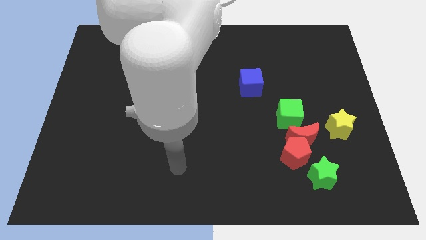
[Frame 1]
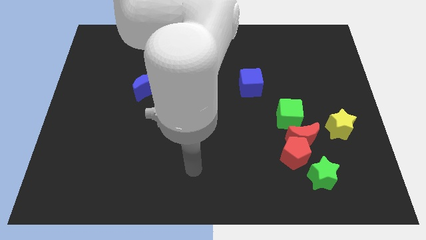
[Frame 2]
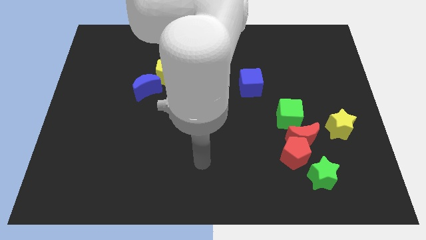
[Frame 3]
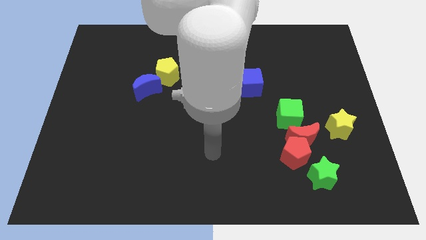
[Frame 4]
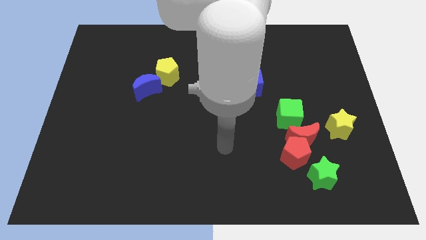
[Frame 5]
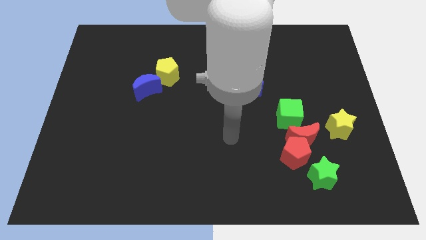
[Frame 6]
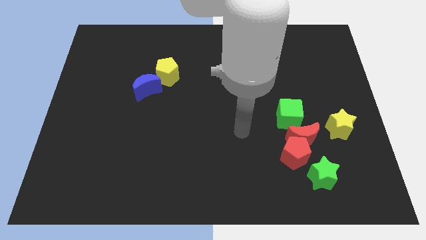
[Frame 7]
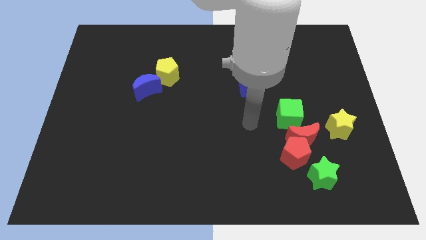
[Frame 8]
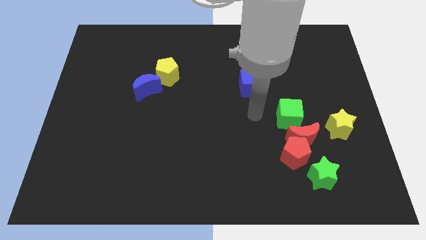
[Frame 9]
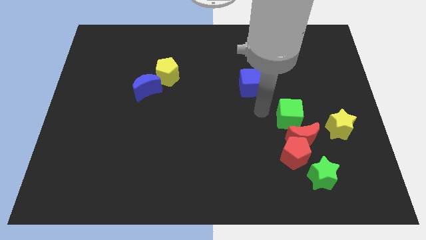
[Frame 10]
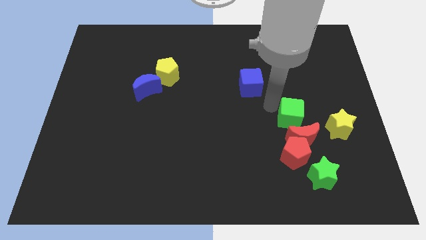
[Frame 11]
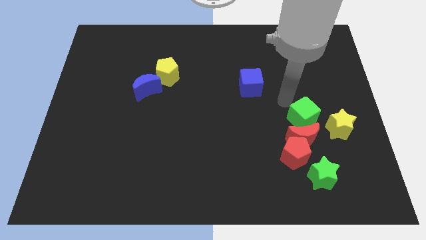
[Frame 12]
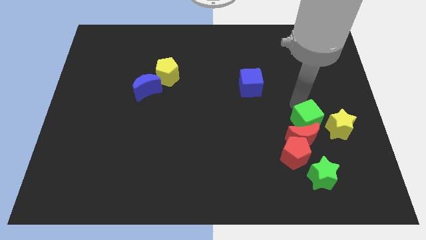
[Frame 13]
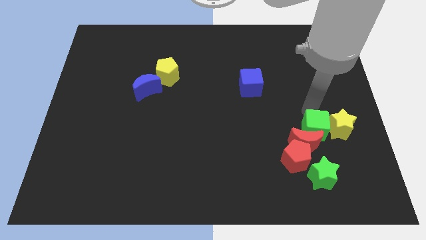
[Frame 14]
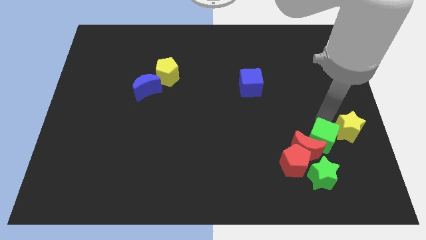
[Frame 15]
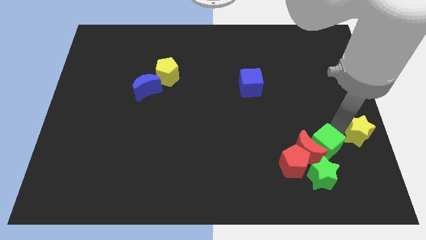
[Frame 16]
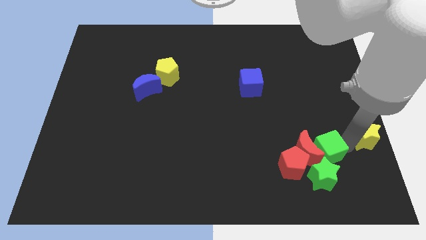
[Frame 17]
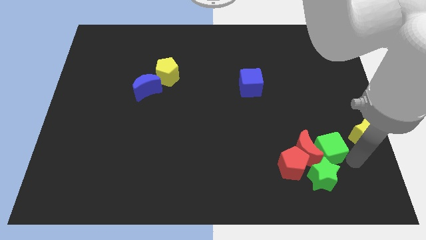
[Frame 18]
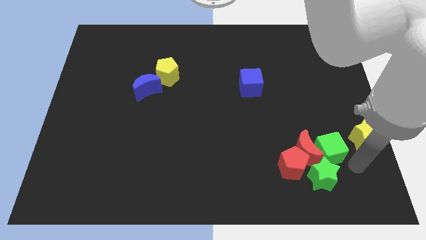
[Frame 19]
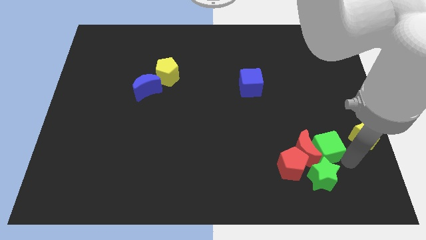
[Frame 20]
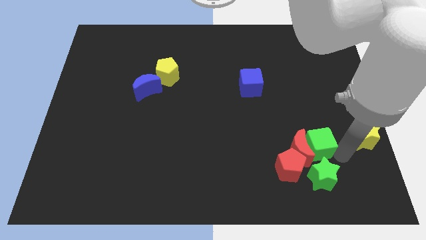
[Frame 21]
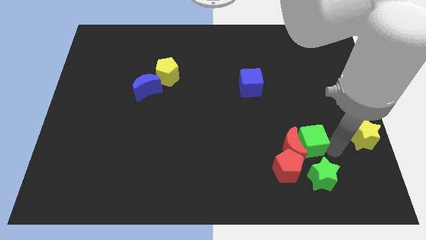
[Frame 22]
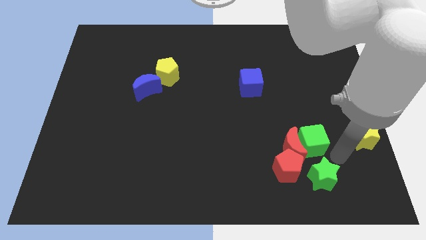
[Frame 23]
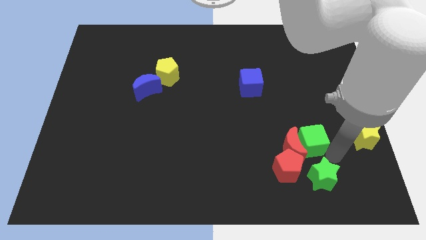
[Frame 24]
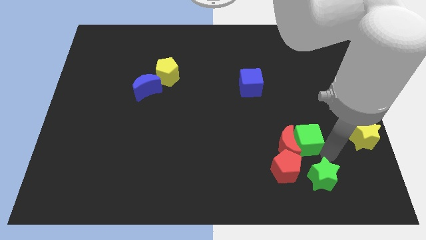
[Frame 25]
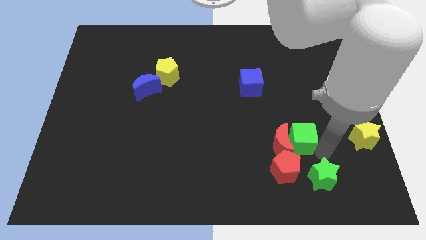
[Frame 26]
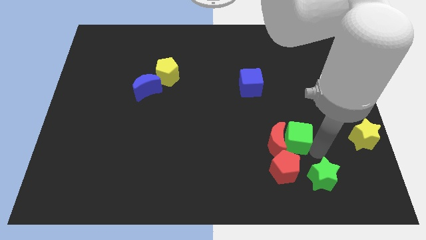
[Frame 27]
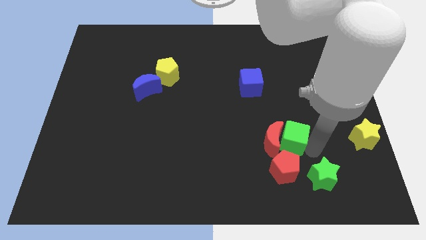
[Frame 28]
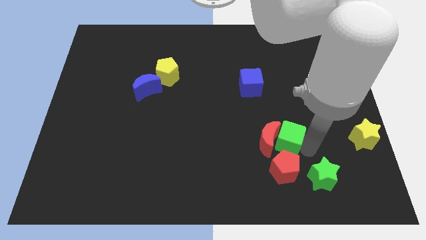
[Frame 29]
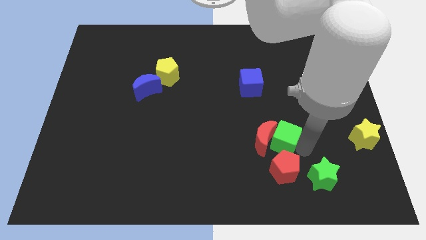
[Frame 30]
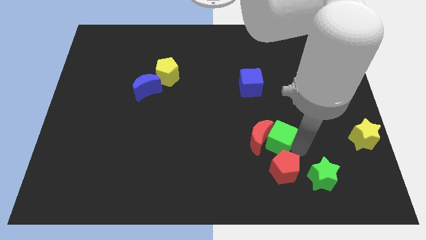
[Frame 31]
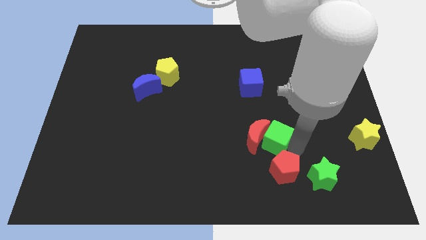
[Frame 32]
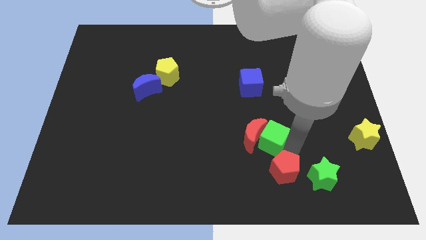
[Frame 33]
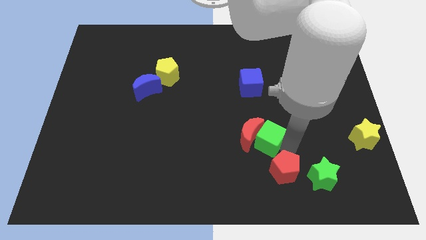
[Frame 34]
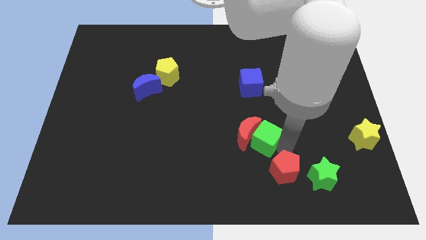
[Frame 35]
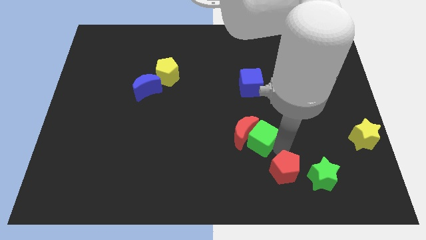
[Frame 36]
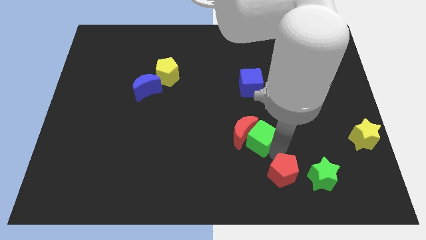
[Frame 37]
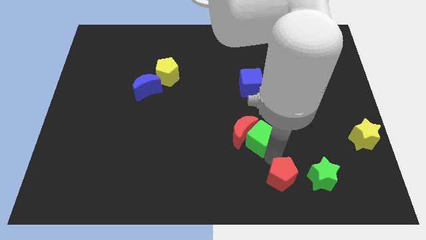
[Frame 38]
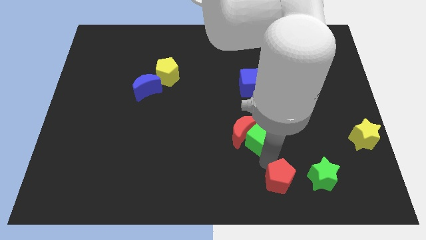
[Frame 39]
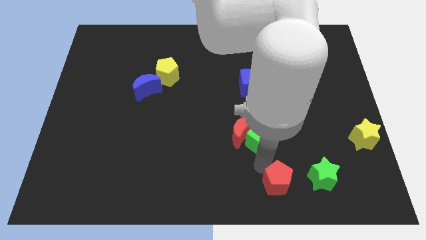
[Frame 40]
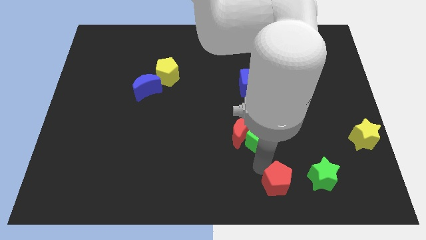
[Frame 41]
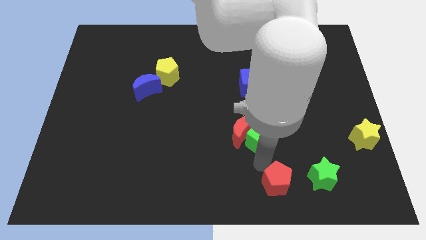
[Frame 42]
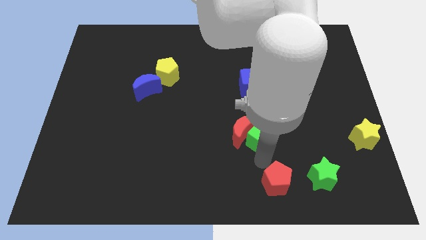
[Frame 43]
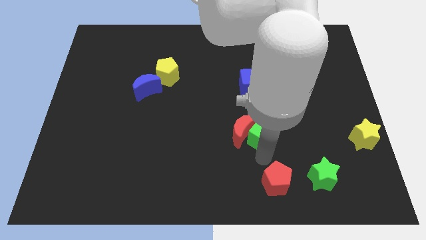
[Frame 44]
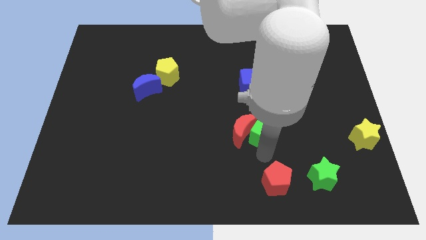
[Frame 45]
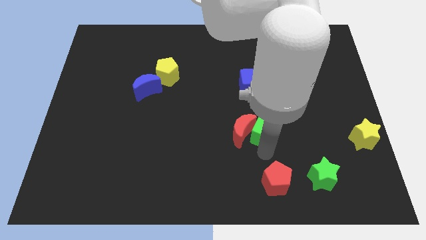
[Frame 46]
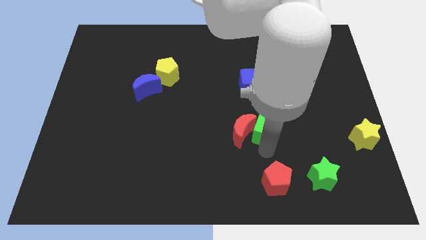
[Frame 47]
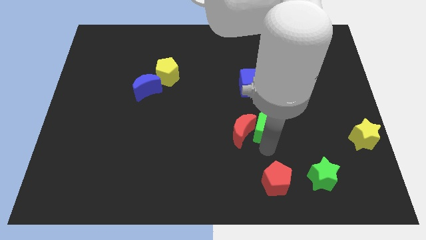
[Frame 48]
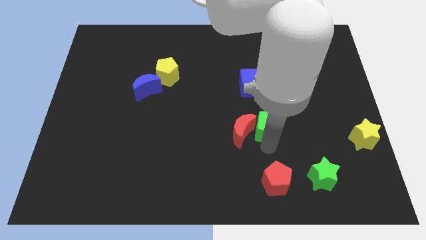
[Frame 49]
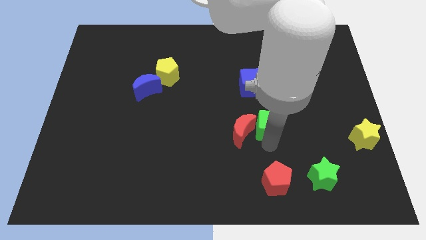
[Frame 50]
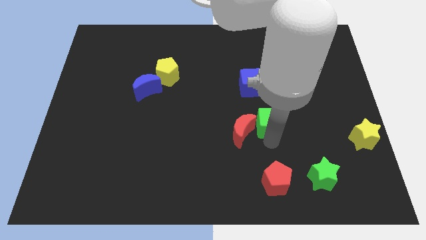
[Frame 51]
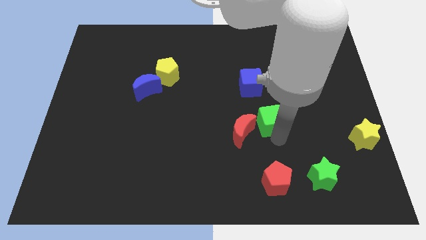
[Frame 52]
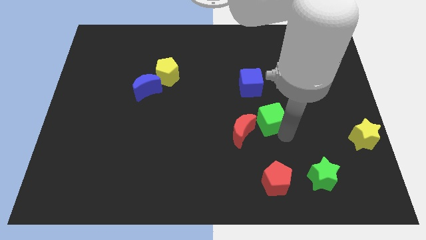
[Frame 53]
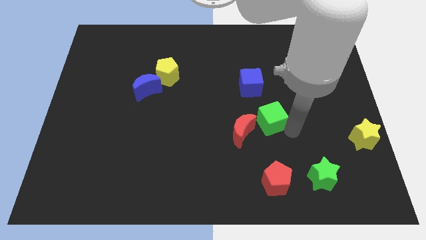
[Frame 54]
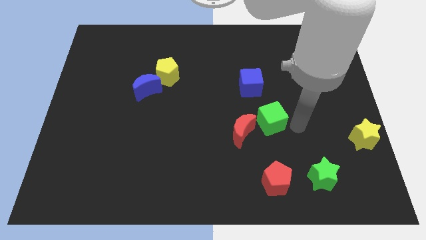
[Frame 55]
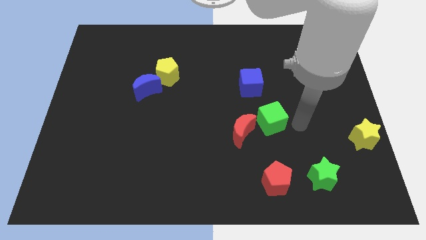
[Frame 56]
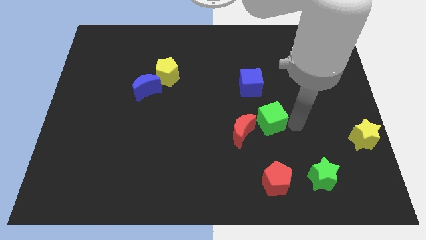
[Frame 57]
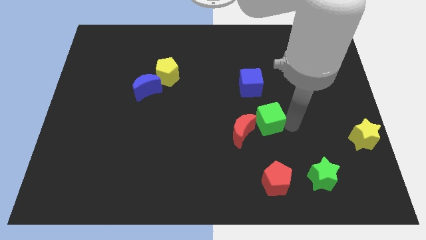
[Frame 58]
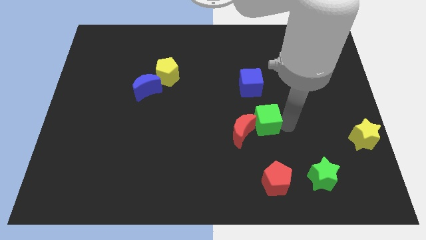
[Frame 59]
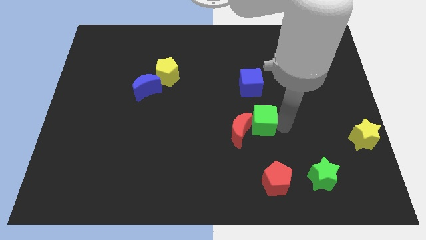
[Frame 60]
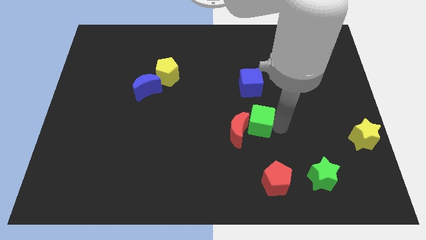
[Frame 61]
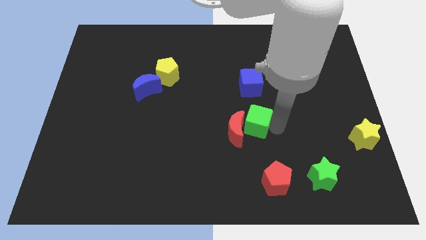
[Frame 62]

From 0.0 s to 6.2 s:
slightly move the green cube left

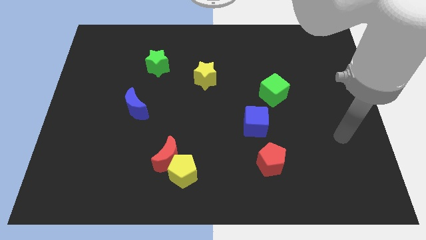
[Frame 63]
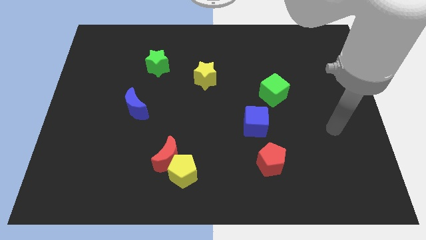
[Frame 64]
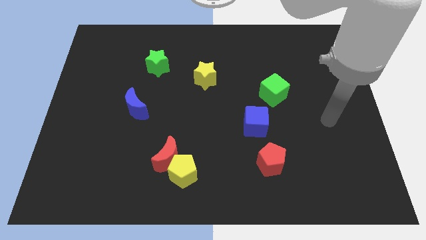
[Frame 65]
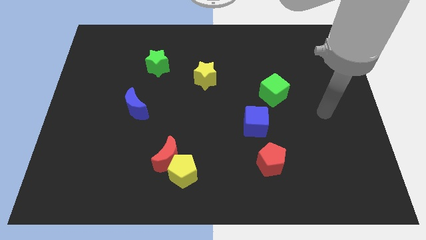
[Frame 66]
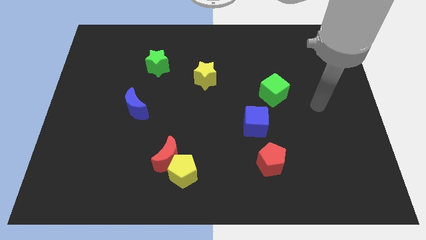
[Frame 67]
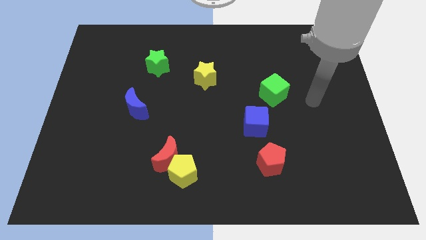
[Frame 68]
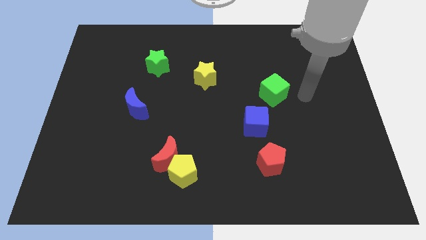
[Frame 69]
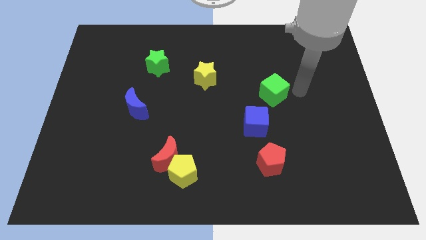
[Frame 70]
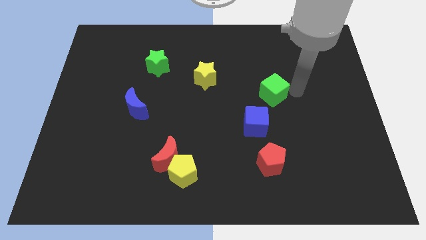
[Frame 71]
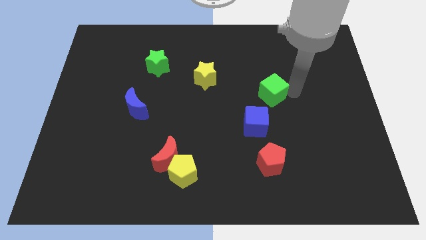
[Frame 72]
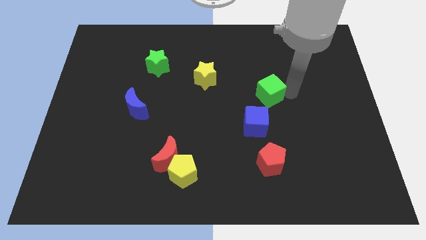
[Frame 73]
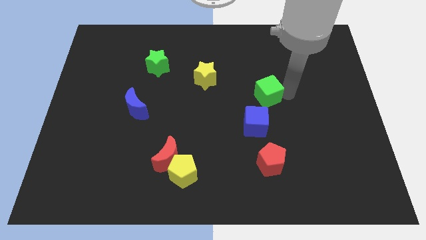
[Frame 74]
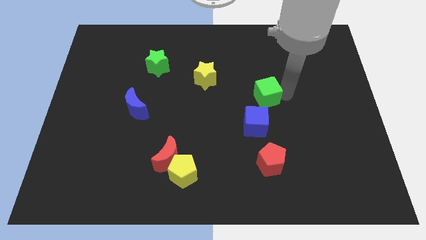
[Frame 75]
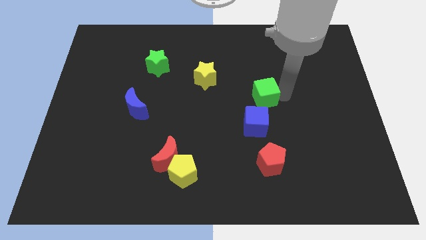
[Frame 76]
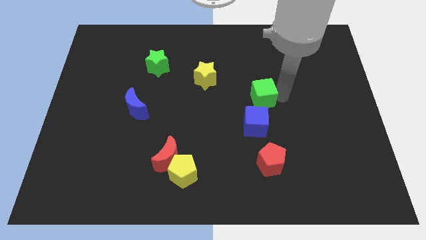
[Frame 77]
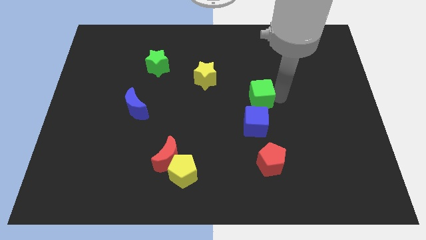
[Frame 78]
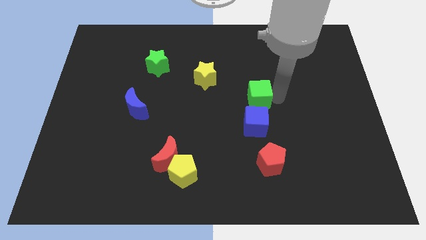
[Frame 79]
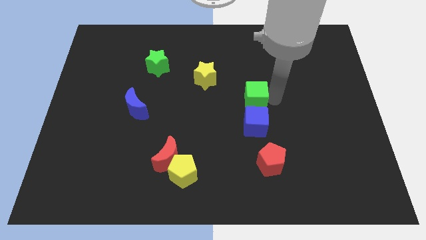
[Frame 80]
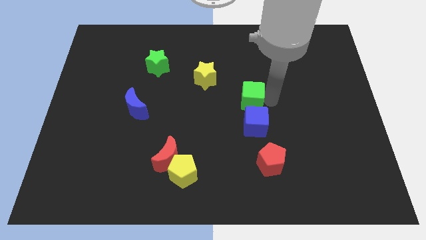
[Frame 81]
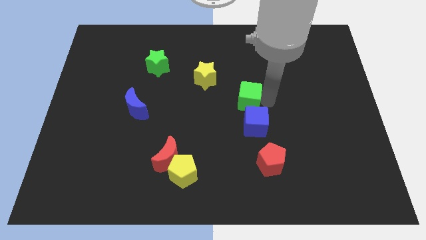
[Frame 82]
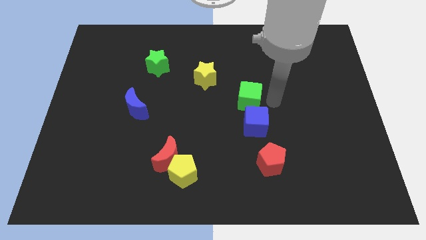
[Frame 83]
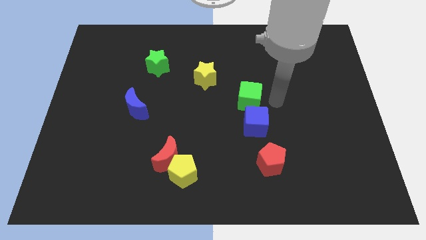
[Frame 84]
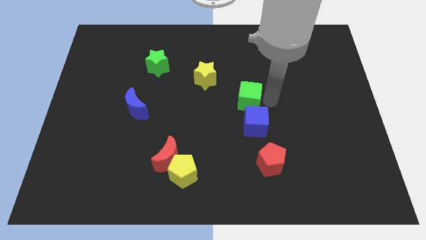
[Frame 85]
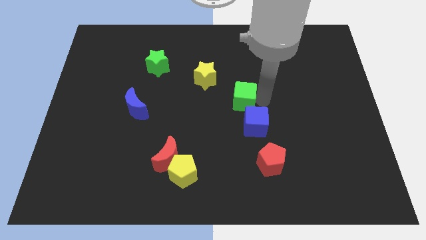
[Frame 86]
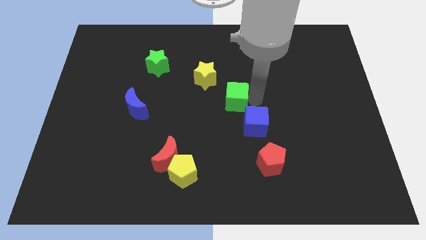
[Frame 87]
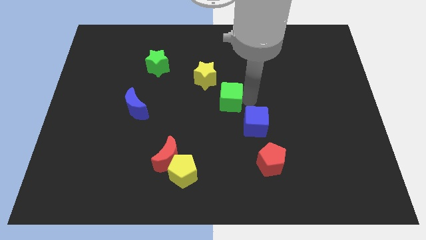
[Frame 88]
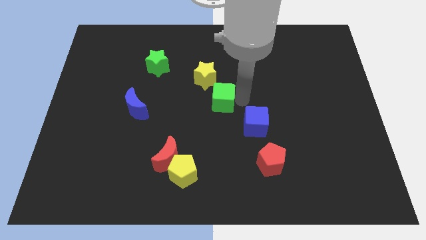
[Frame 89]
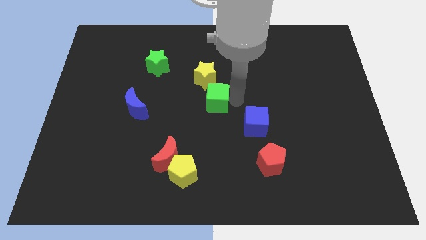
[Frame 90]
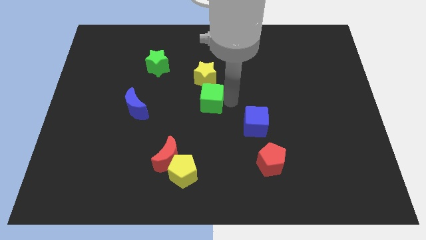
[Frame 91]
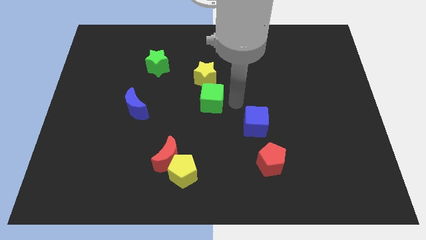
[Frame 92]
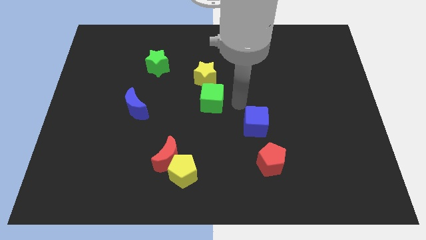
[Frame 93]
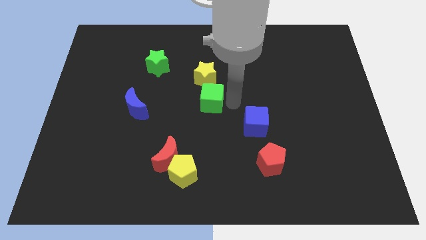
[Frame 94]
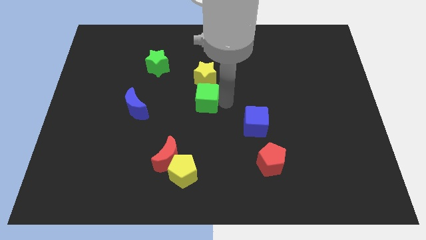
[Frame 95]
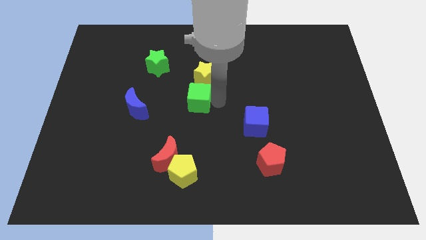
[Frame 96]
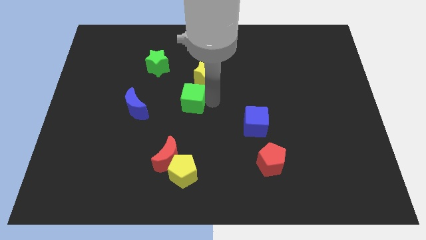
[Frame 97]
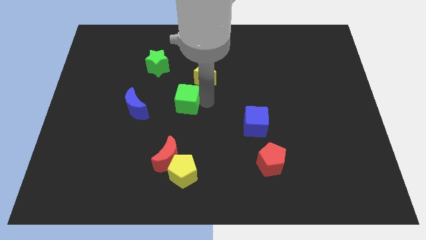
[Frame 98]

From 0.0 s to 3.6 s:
move the green cube left
